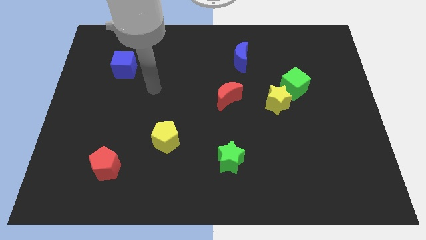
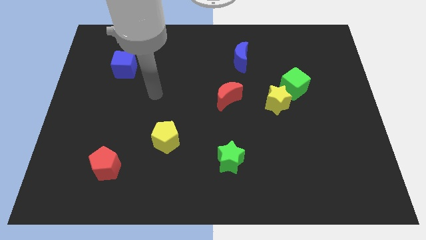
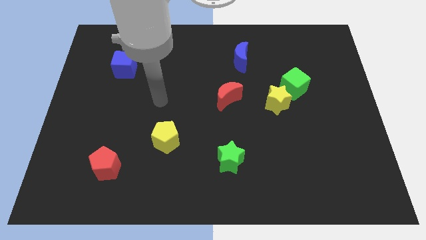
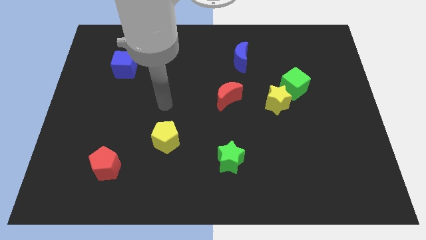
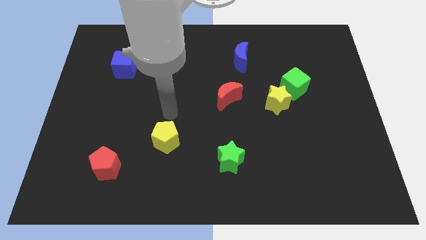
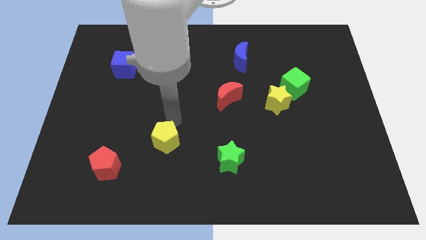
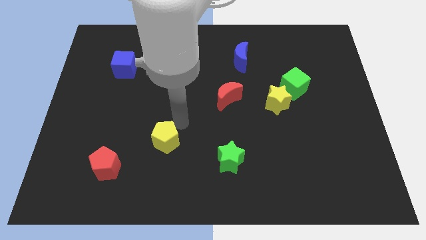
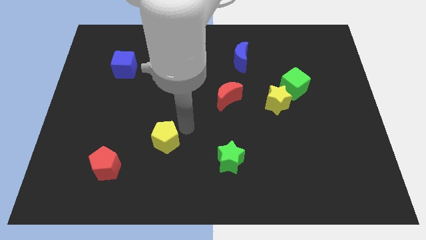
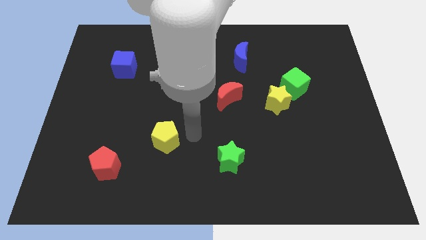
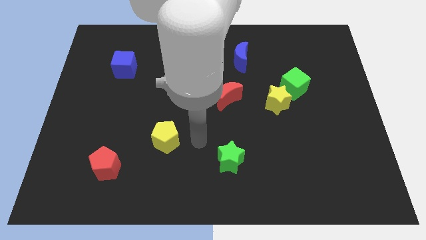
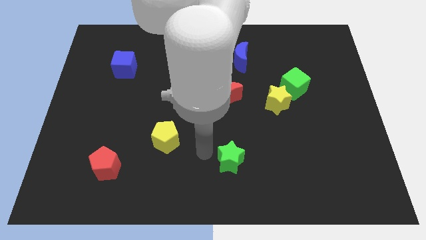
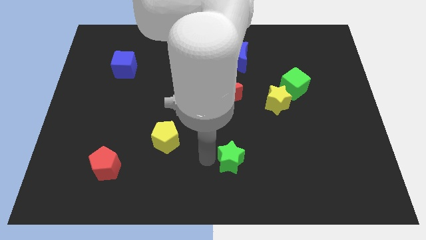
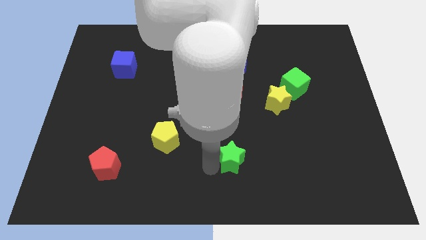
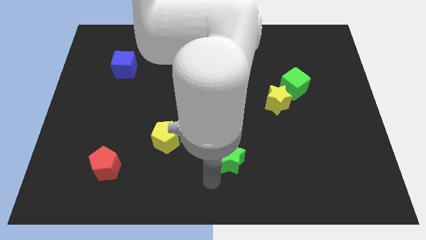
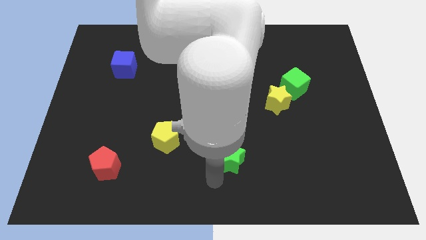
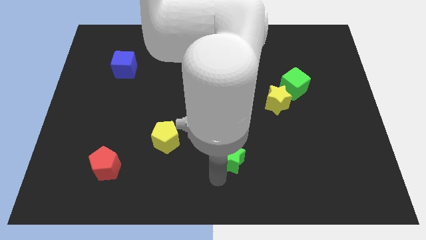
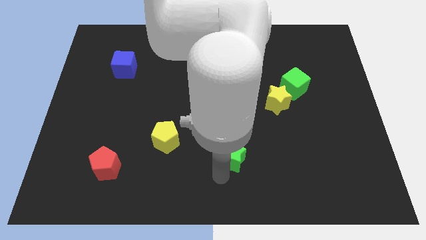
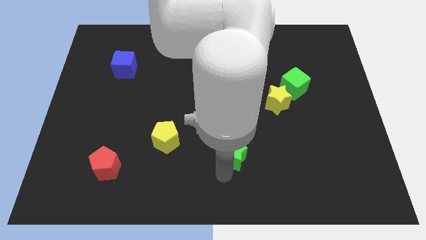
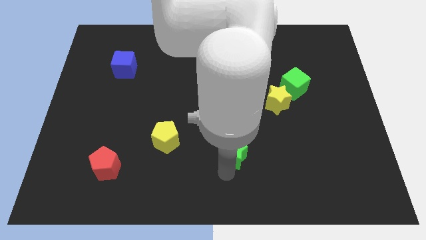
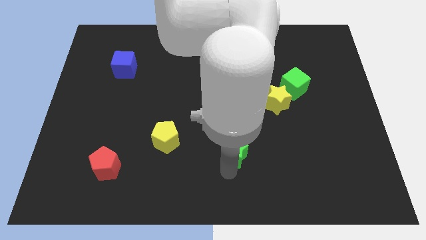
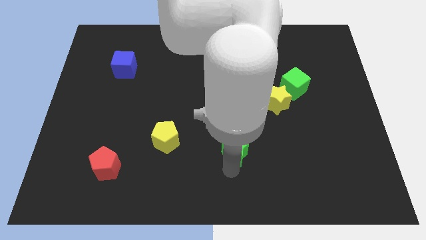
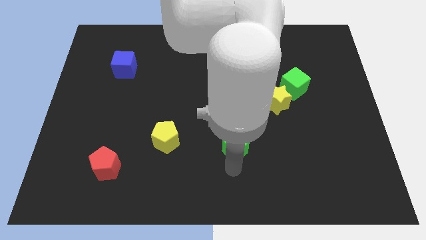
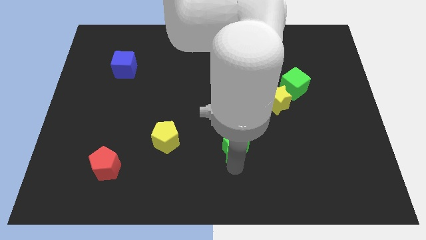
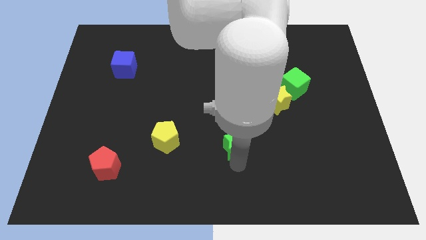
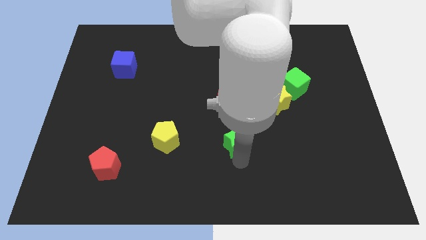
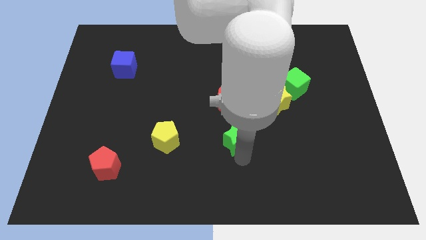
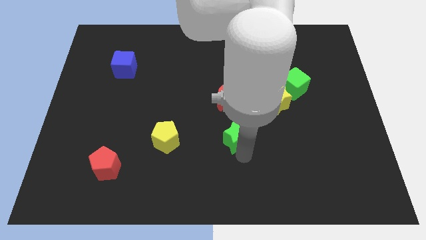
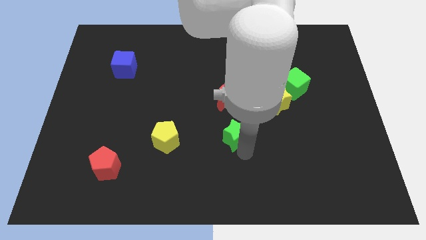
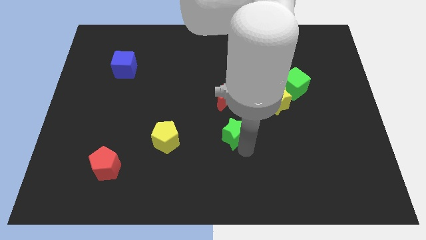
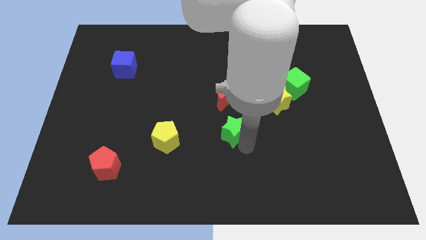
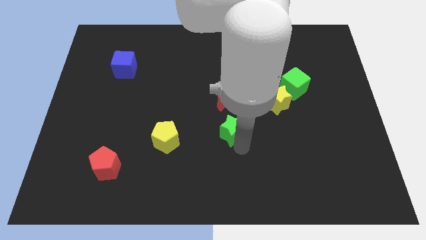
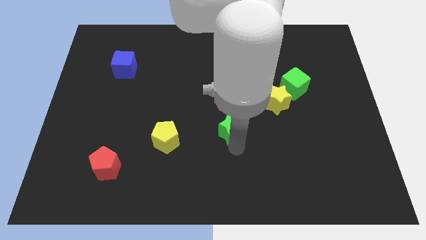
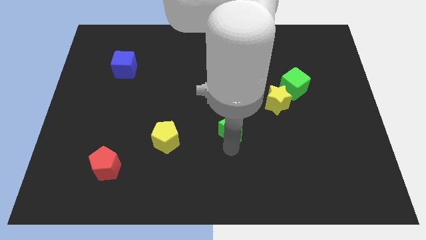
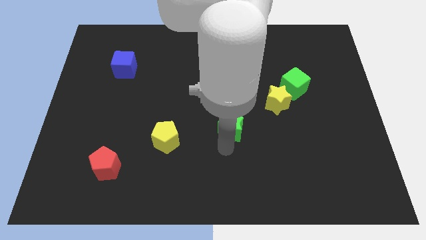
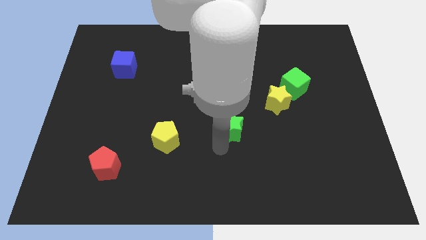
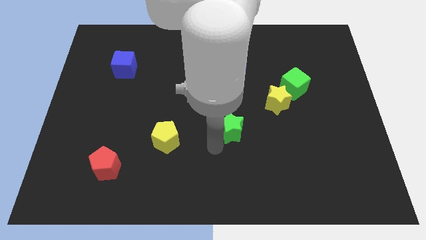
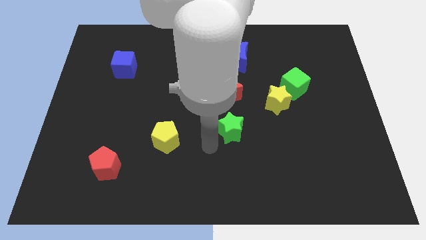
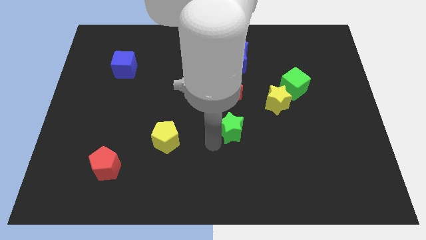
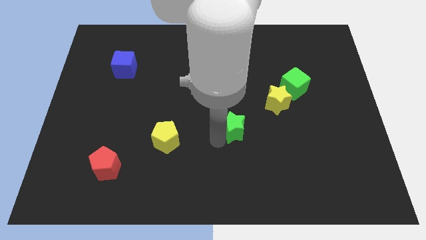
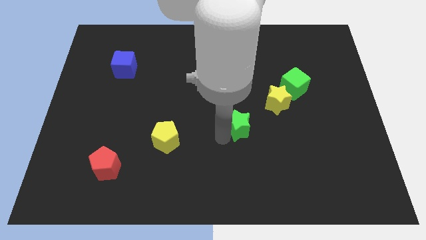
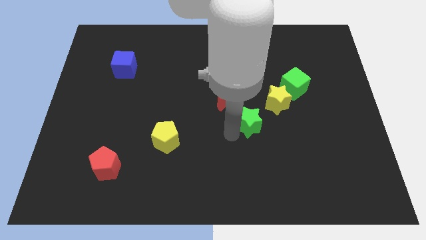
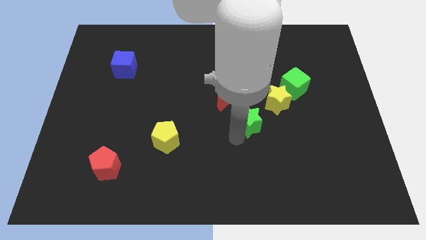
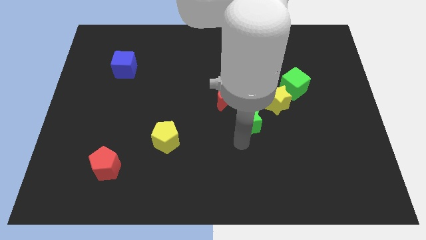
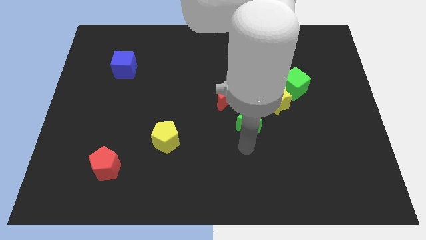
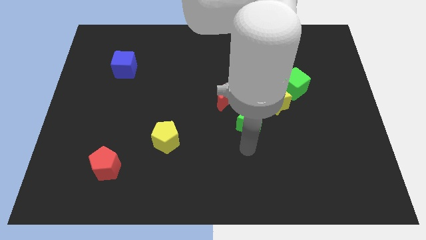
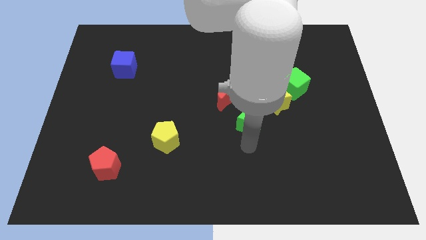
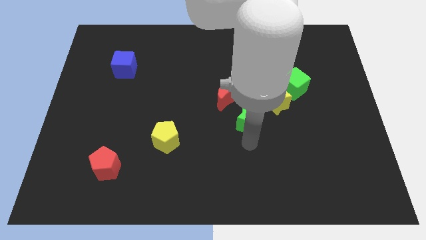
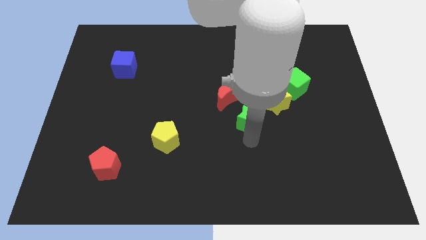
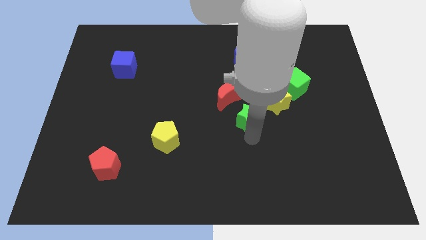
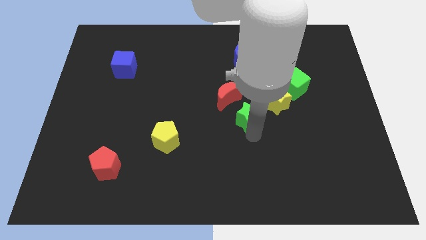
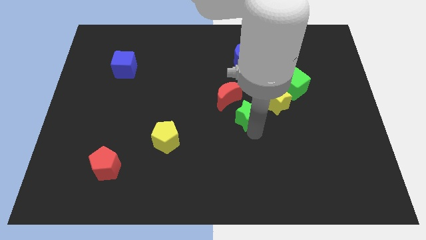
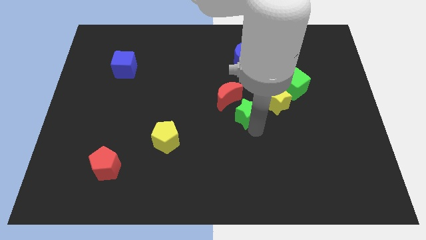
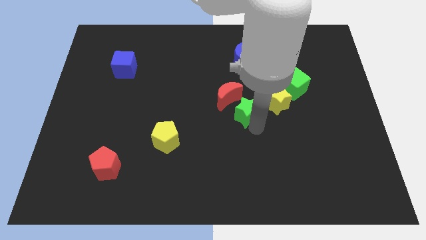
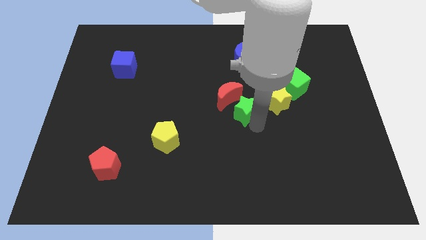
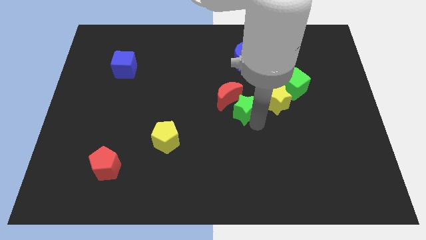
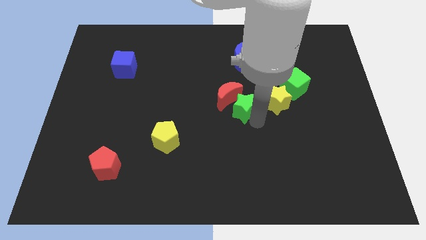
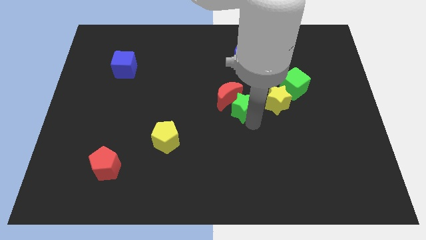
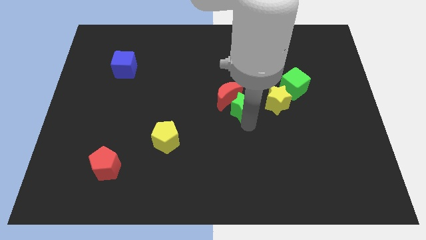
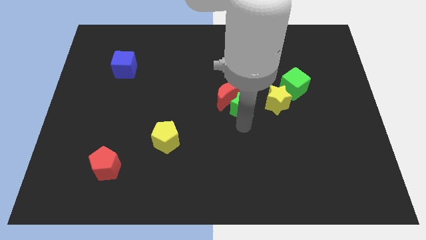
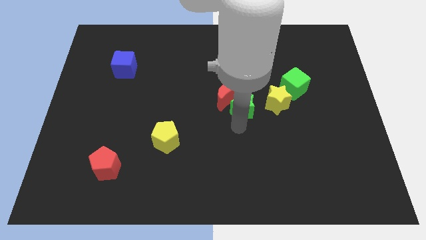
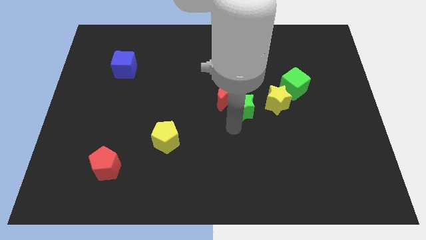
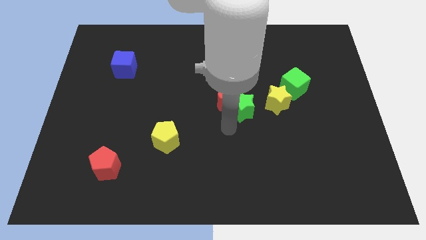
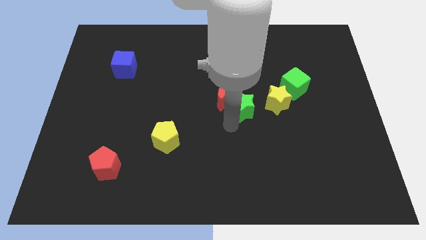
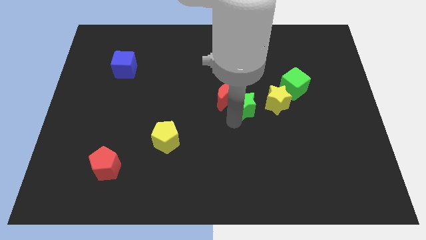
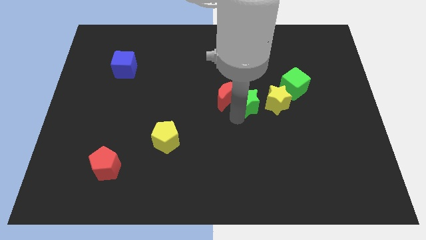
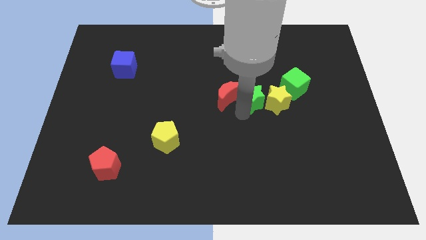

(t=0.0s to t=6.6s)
move the green star to the top right side of the red moon
